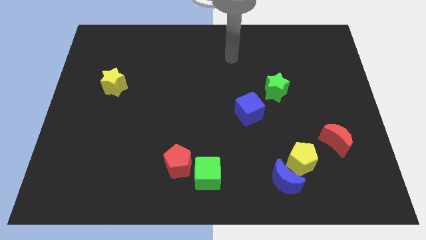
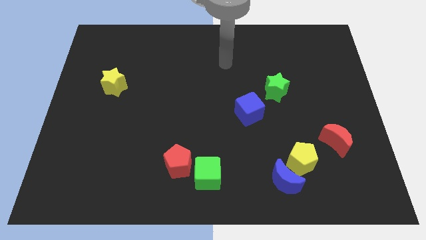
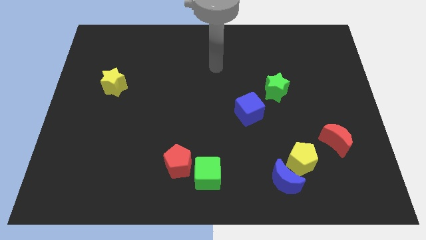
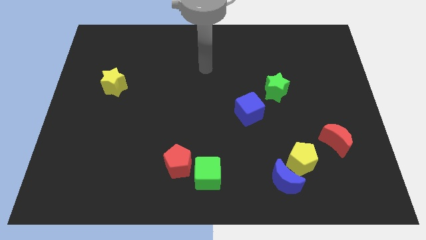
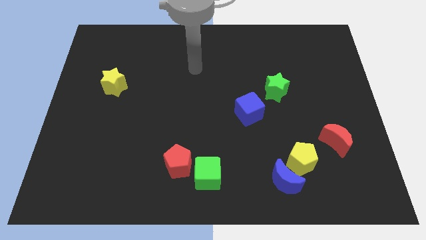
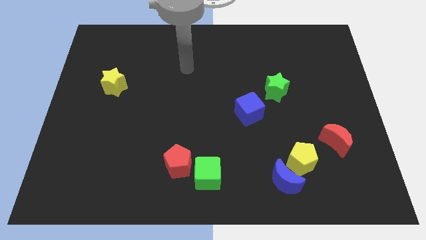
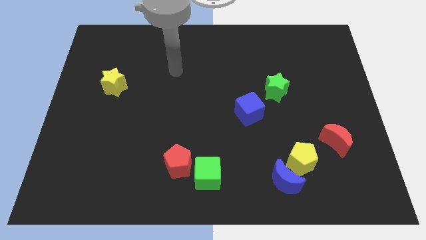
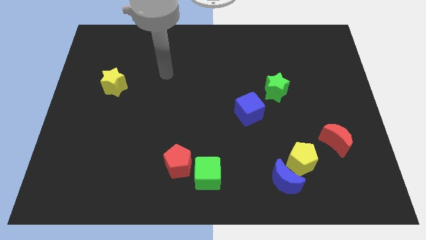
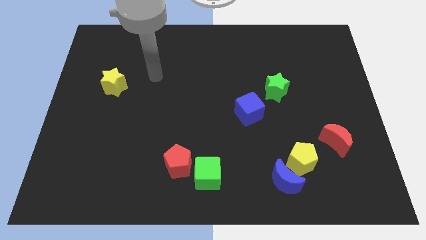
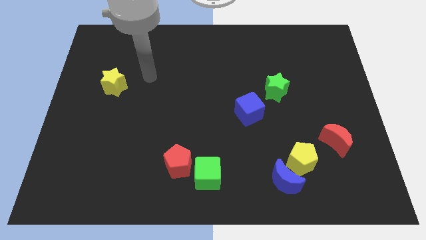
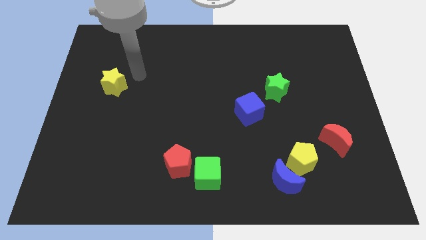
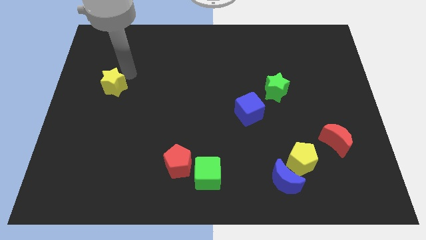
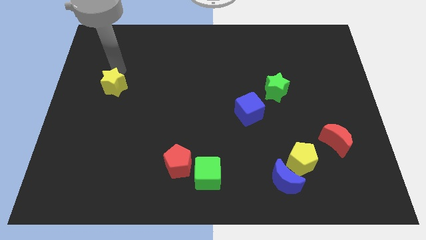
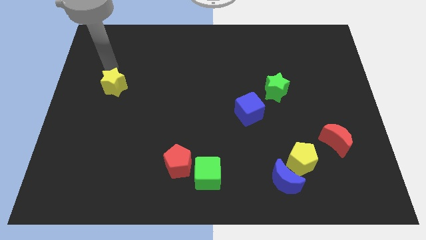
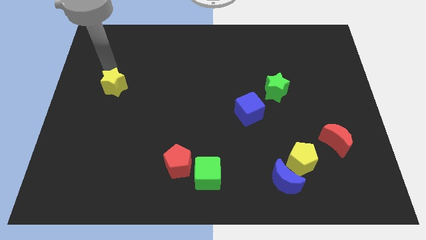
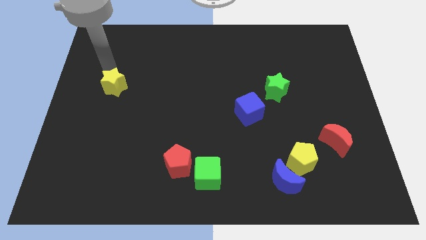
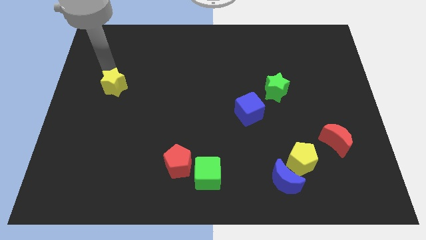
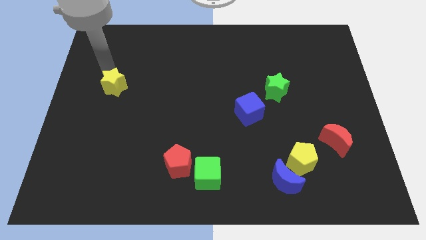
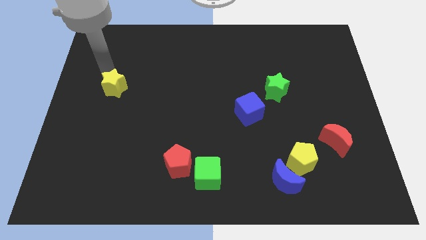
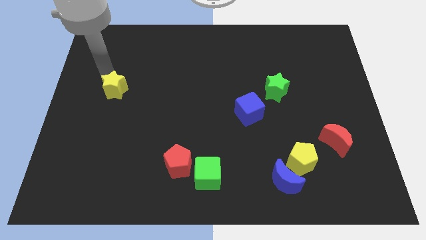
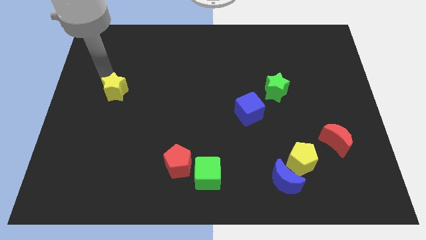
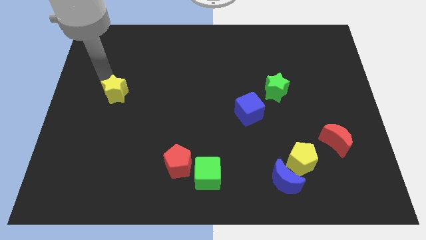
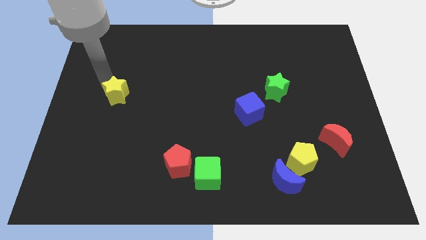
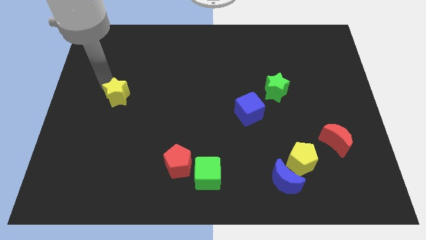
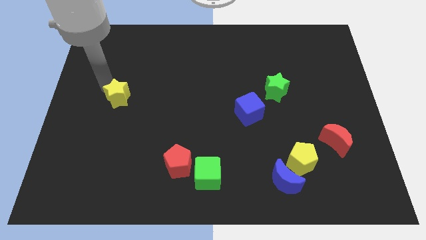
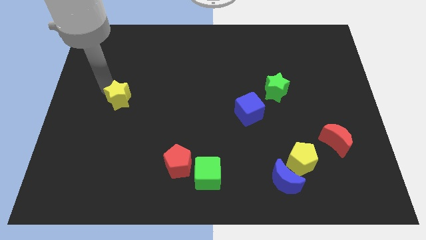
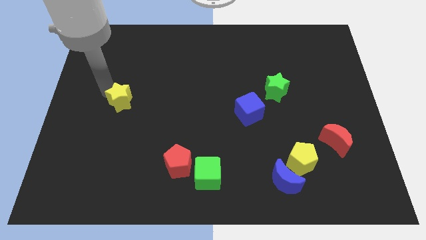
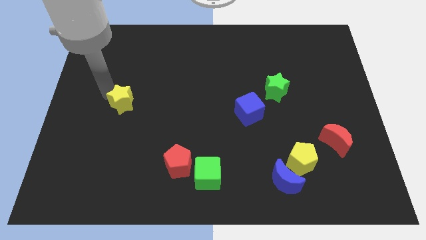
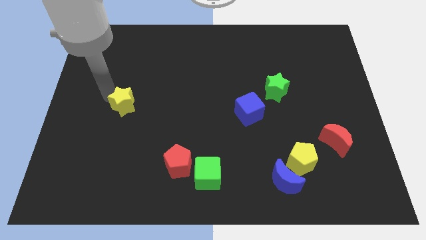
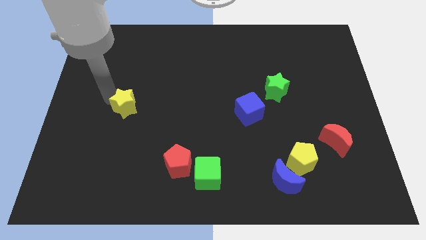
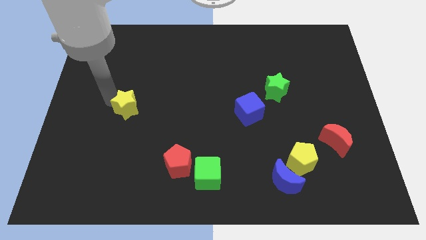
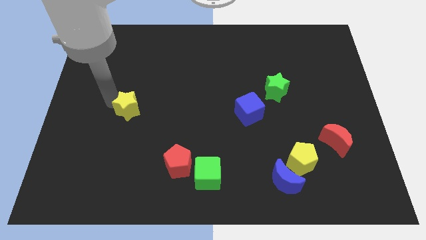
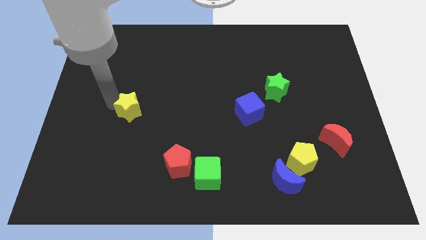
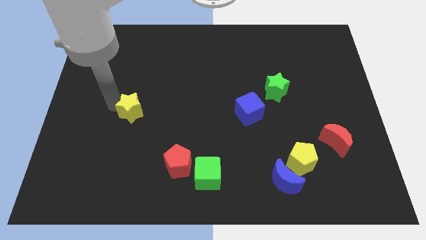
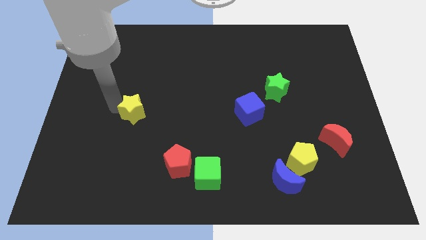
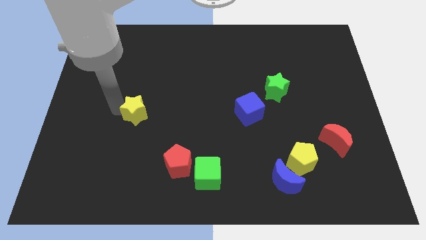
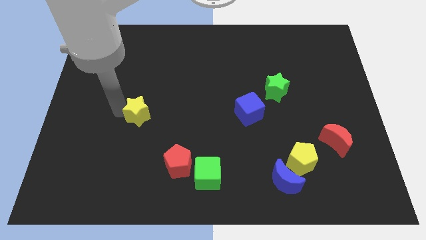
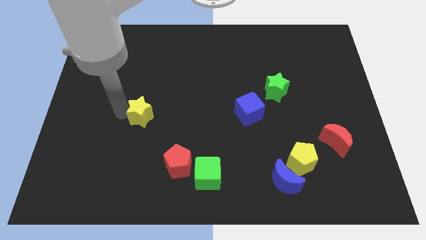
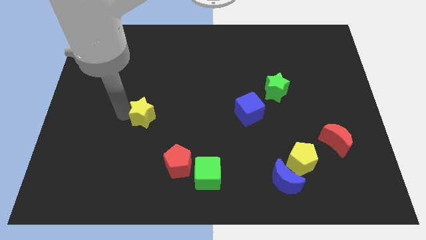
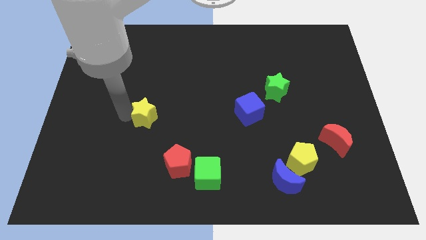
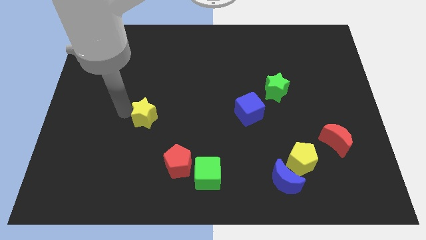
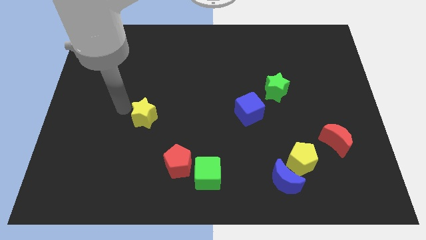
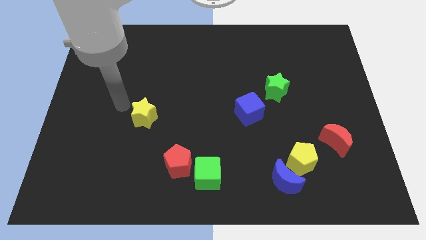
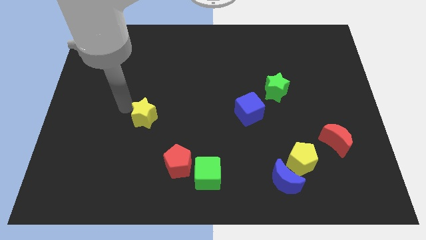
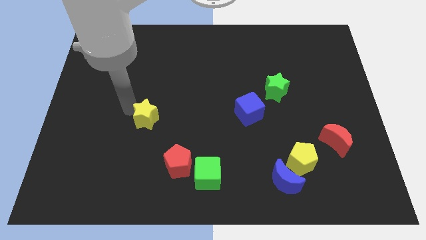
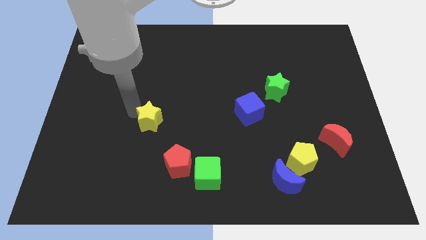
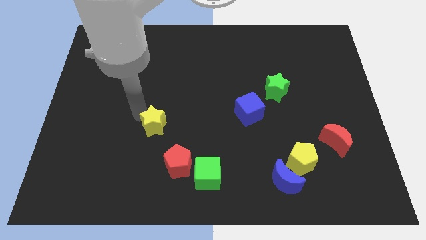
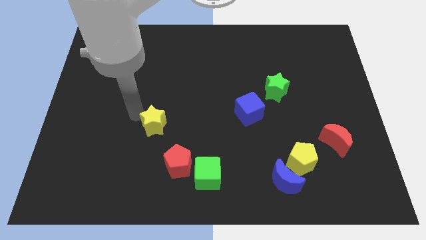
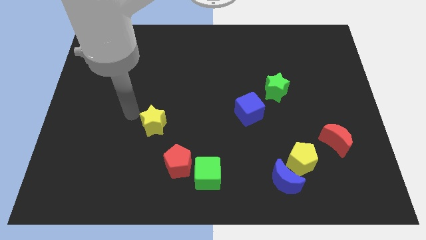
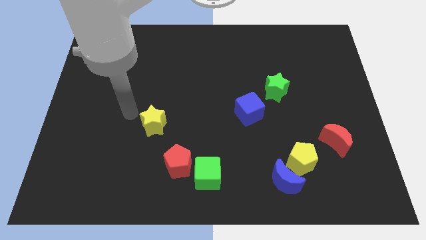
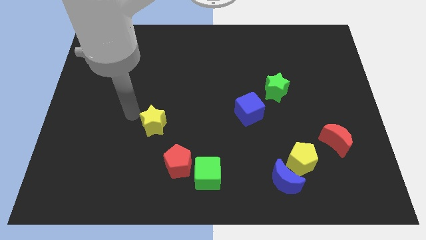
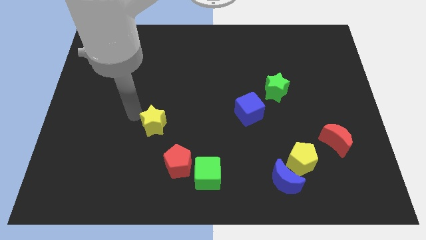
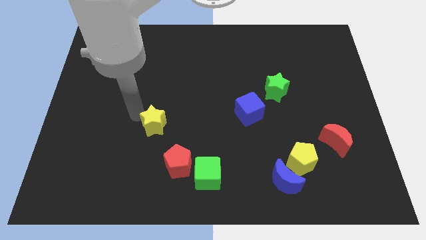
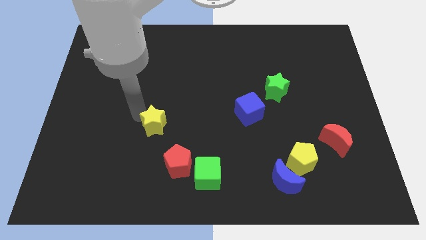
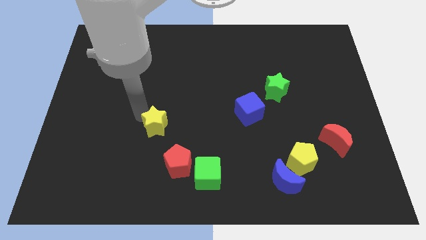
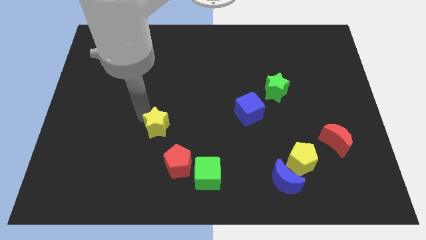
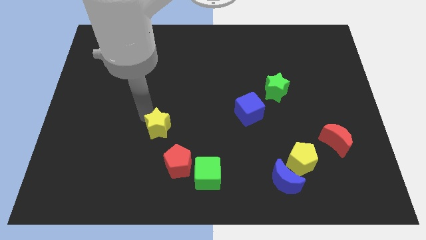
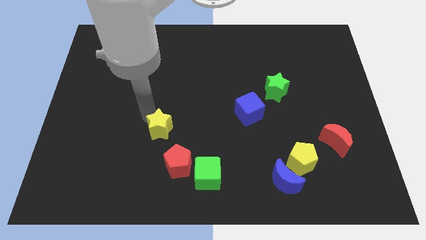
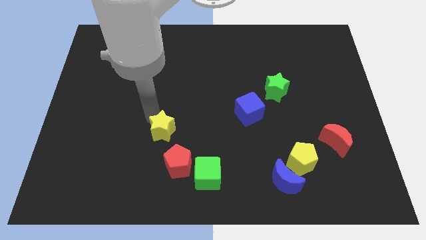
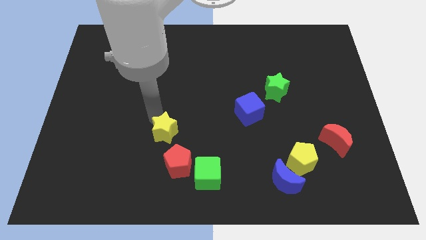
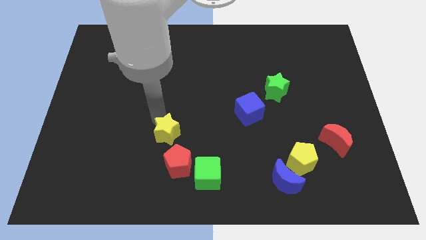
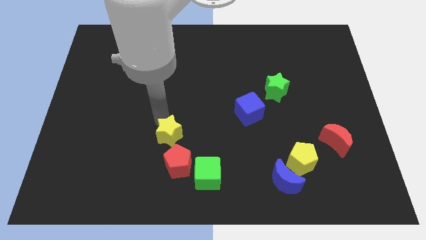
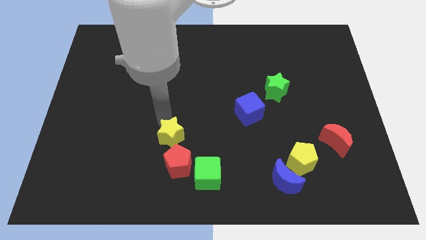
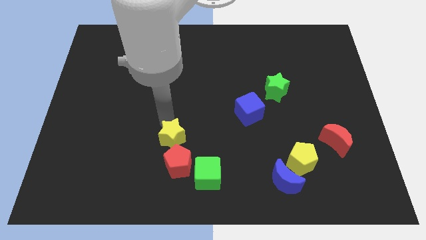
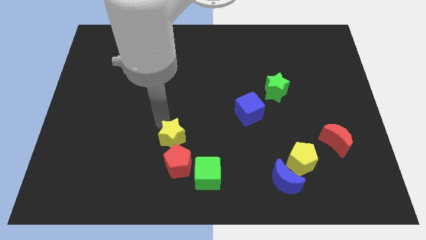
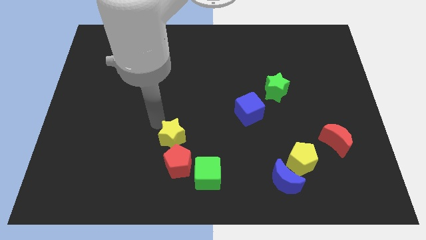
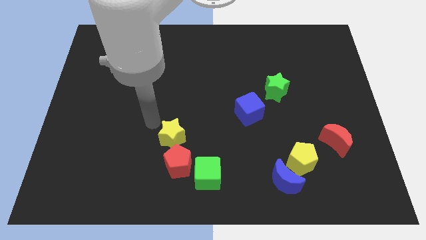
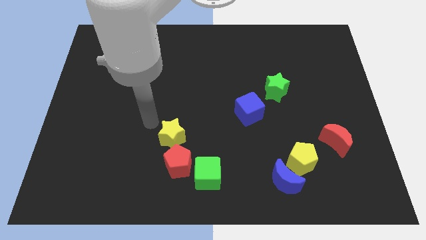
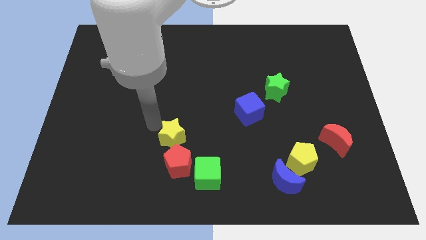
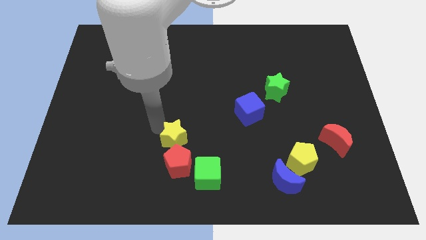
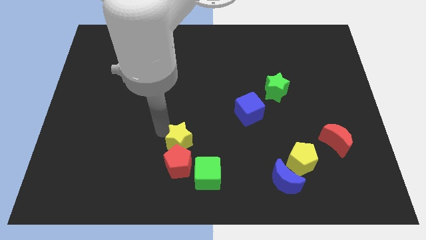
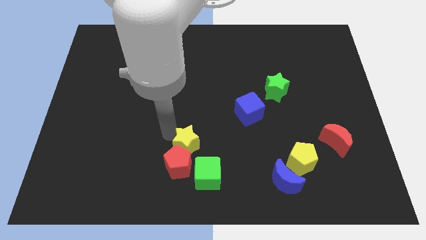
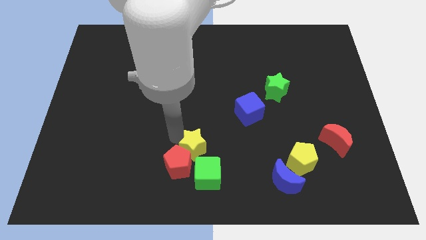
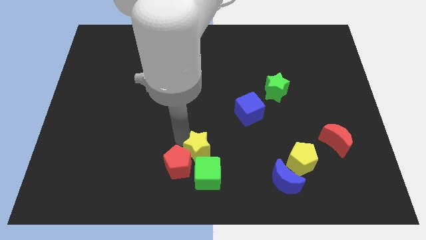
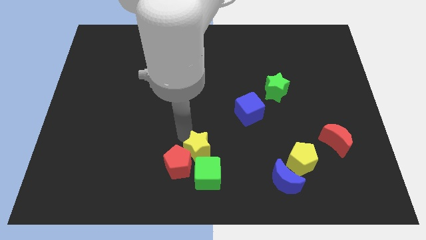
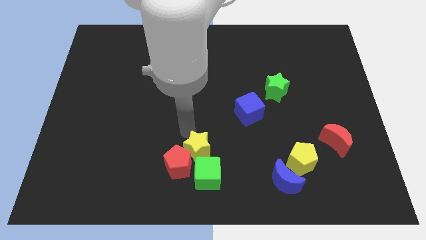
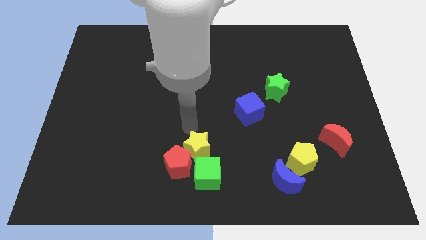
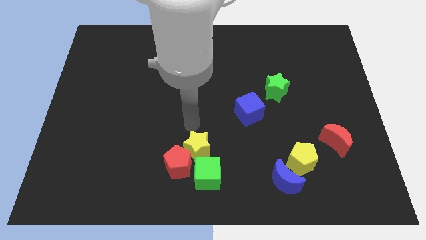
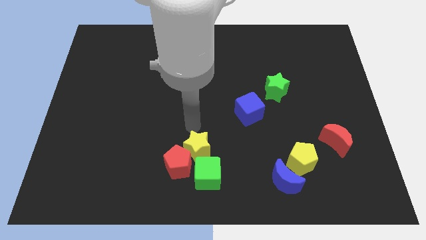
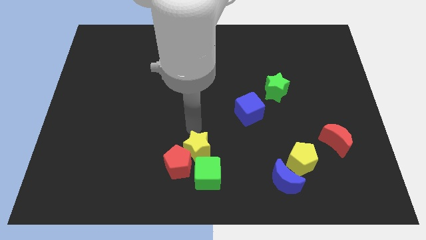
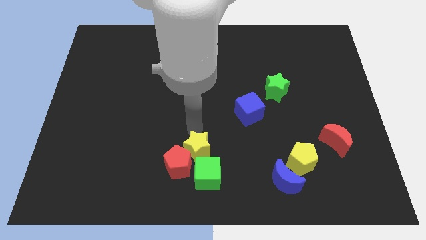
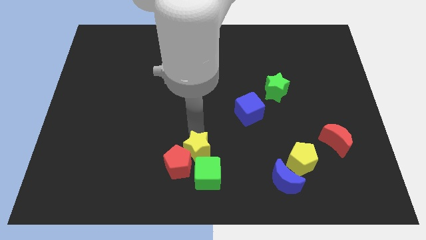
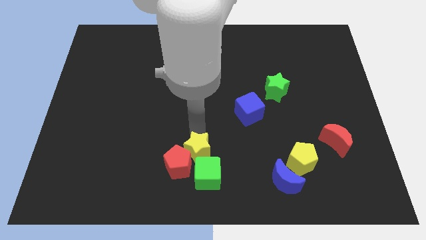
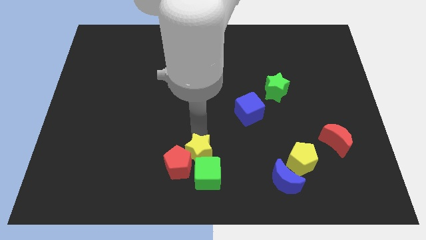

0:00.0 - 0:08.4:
slide the yellow star next to the green cube
